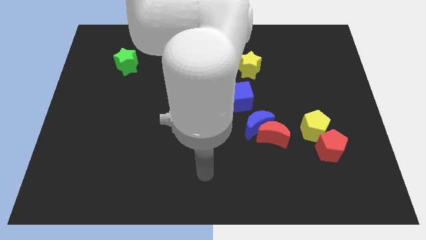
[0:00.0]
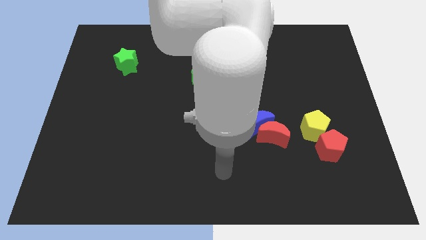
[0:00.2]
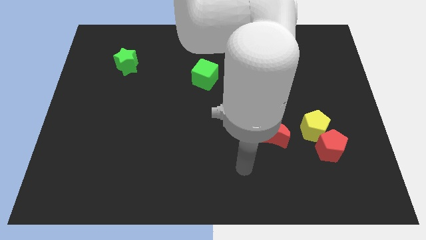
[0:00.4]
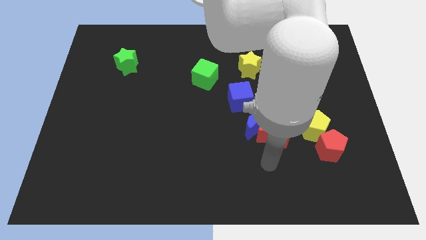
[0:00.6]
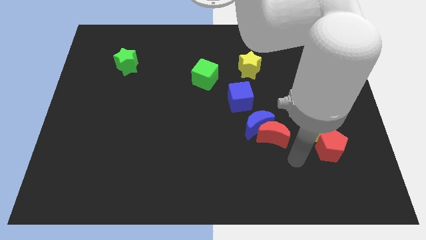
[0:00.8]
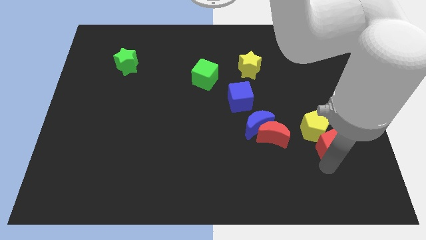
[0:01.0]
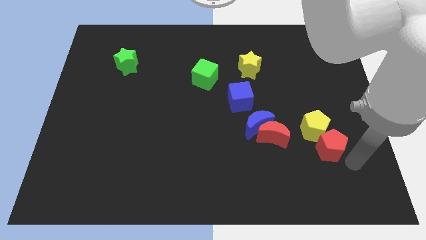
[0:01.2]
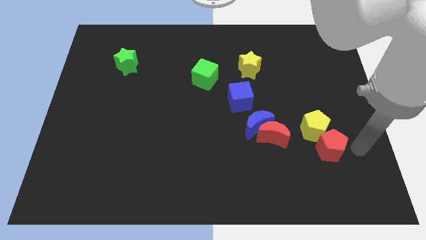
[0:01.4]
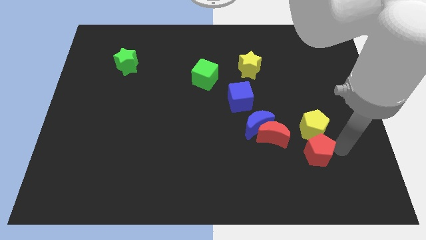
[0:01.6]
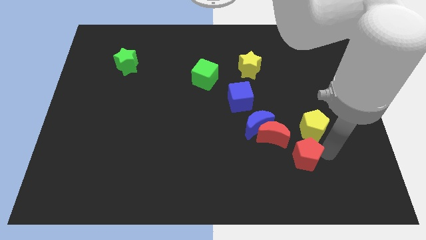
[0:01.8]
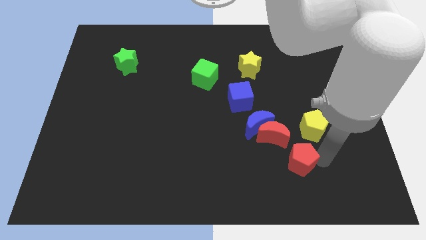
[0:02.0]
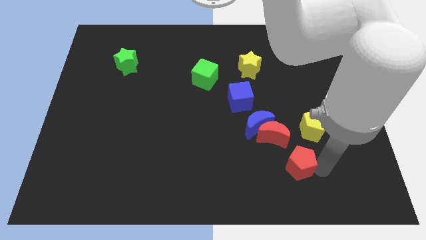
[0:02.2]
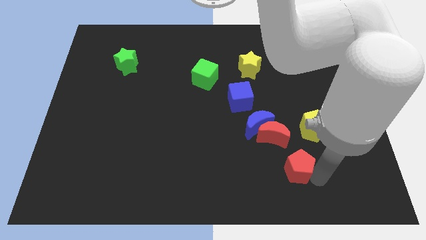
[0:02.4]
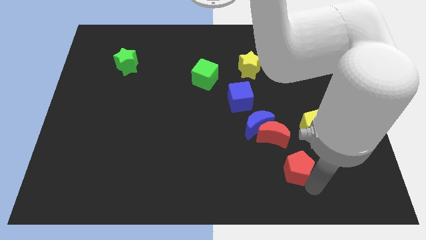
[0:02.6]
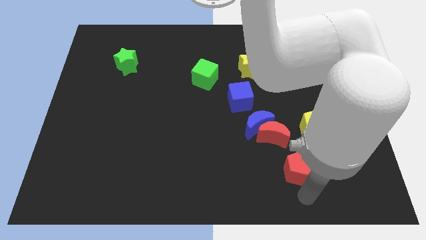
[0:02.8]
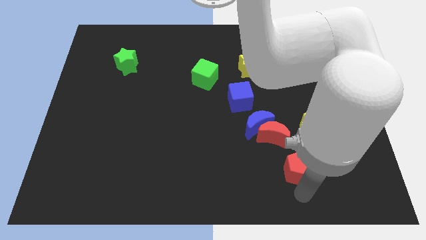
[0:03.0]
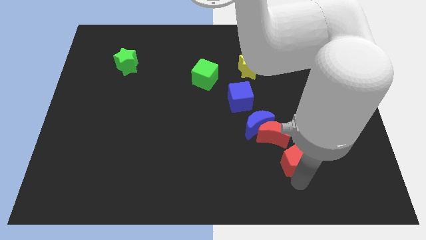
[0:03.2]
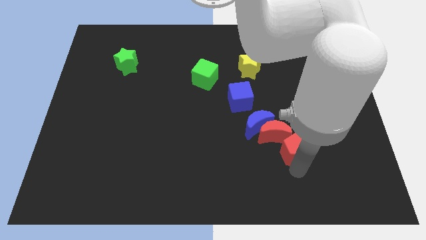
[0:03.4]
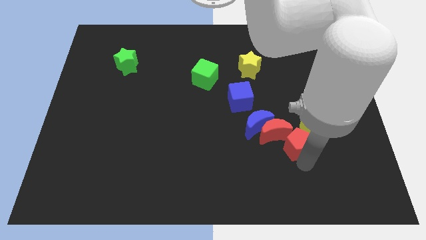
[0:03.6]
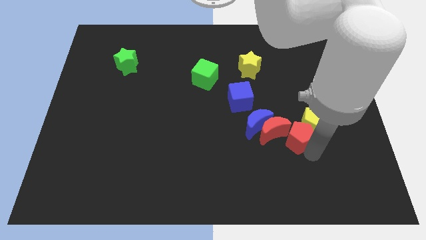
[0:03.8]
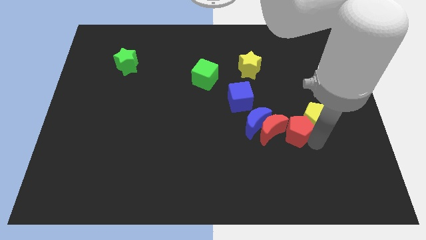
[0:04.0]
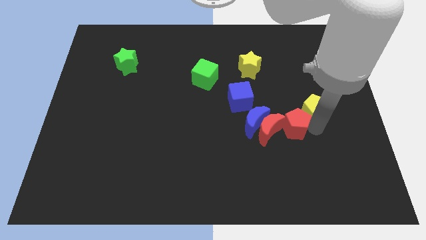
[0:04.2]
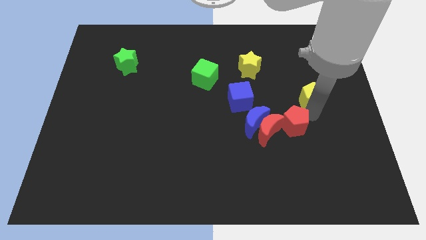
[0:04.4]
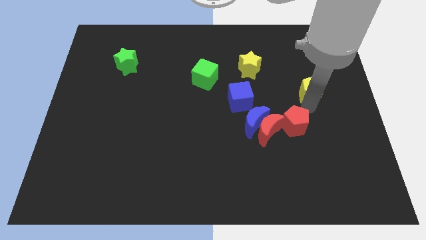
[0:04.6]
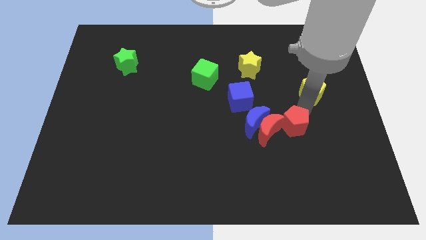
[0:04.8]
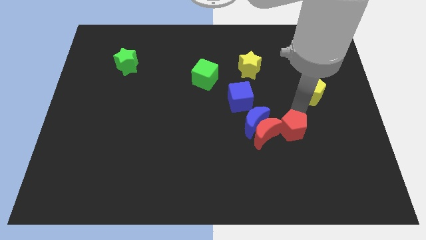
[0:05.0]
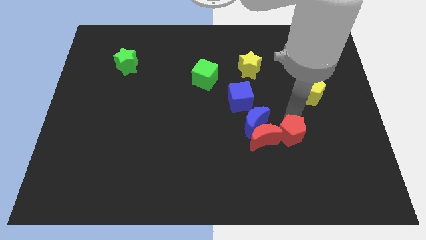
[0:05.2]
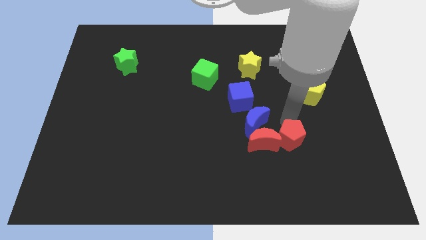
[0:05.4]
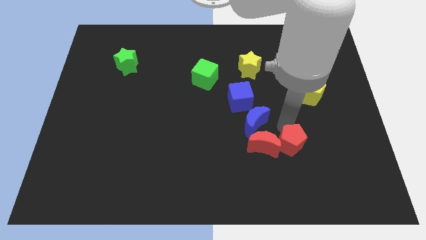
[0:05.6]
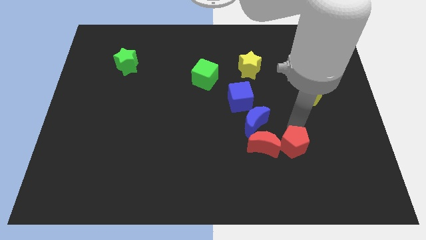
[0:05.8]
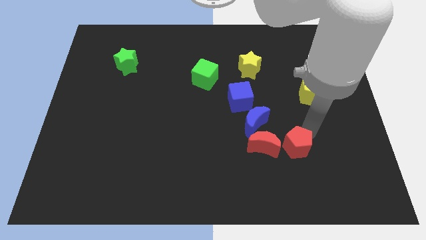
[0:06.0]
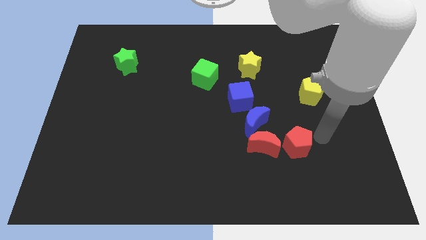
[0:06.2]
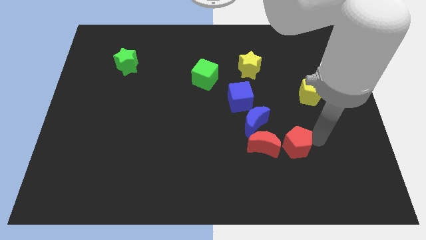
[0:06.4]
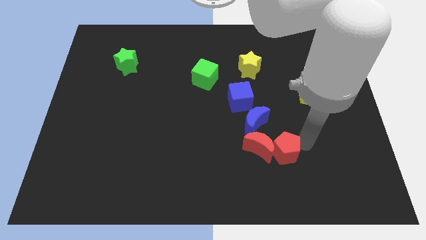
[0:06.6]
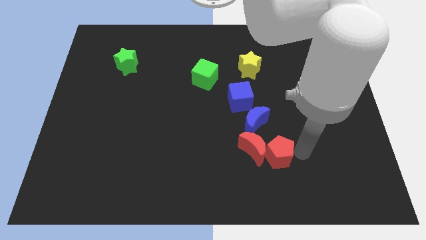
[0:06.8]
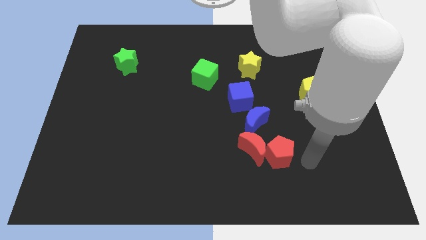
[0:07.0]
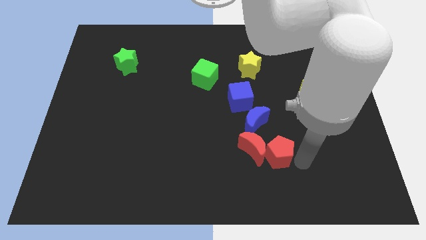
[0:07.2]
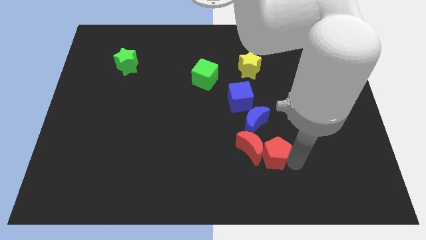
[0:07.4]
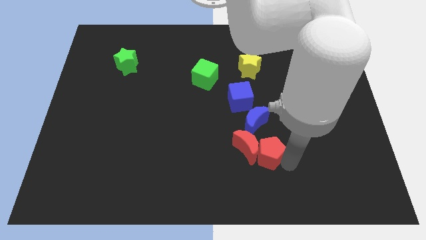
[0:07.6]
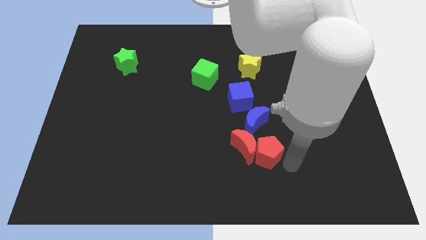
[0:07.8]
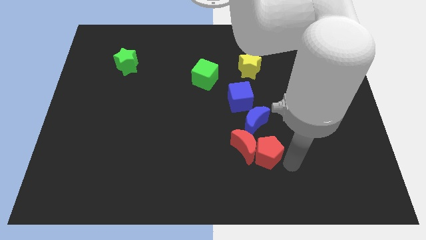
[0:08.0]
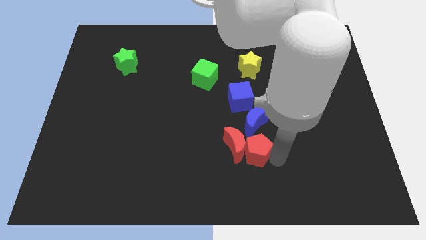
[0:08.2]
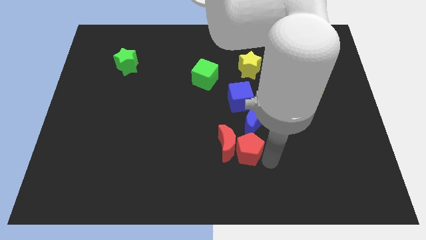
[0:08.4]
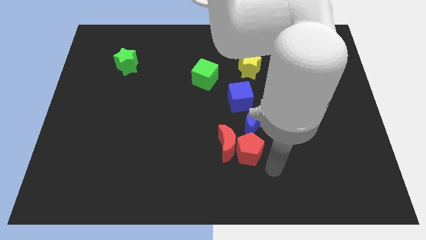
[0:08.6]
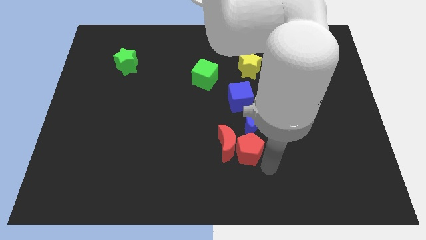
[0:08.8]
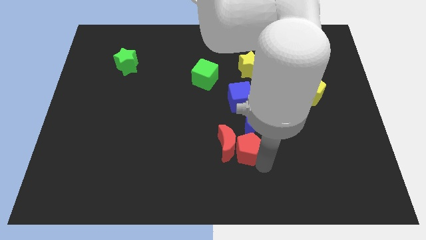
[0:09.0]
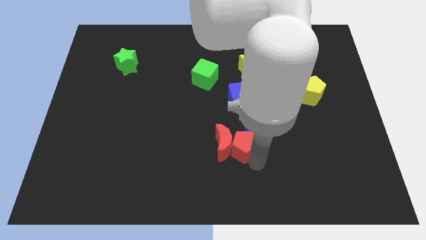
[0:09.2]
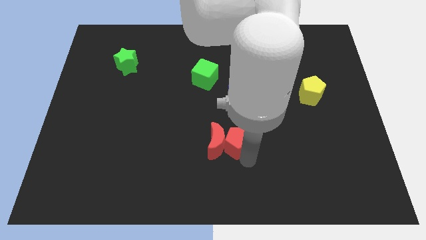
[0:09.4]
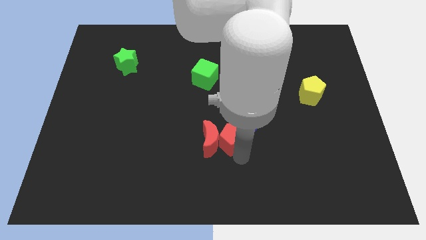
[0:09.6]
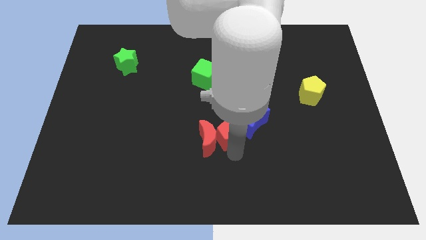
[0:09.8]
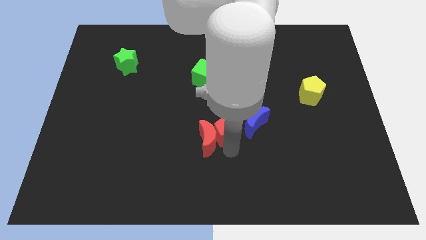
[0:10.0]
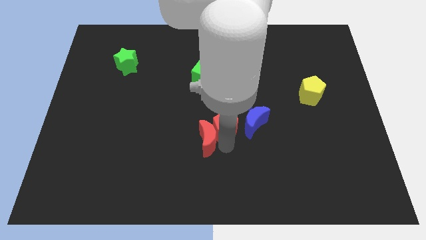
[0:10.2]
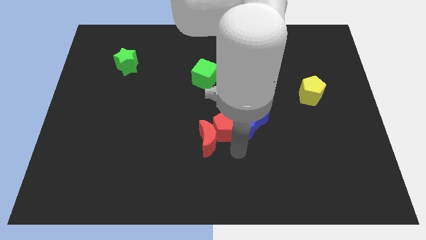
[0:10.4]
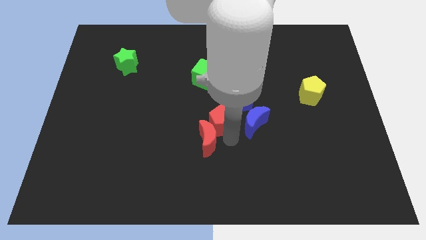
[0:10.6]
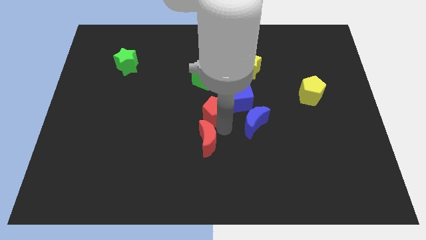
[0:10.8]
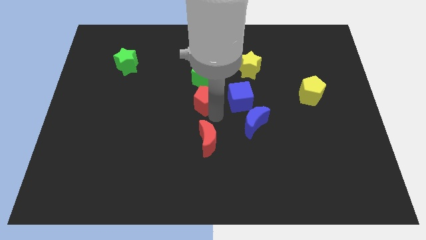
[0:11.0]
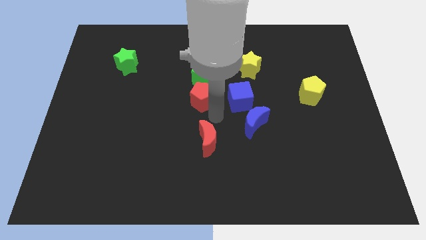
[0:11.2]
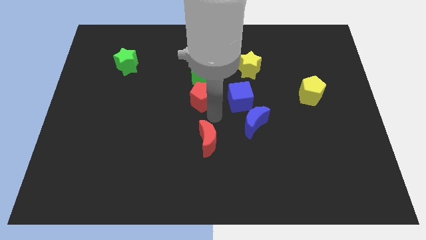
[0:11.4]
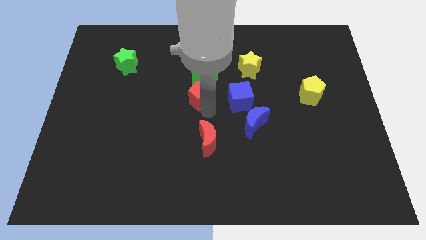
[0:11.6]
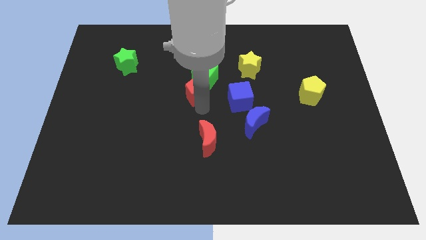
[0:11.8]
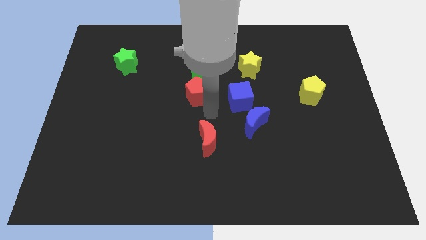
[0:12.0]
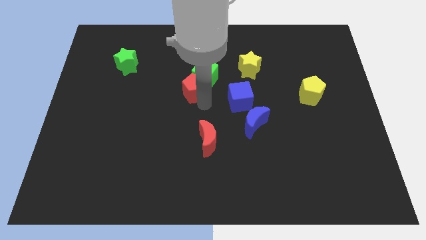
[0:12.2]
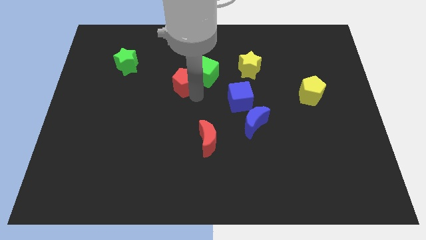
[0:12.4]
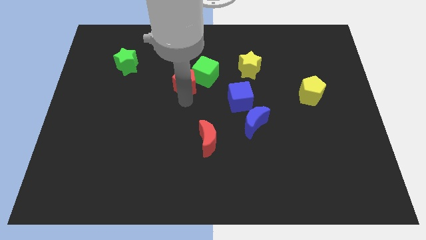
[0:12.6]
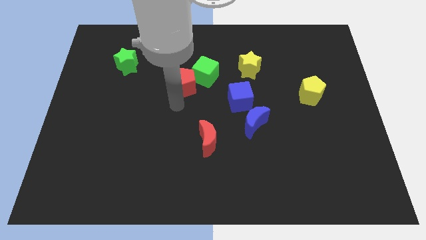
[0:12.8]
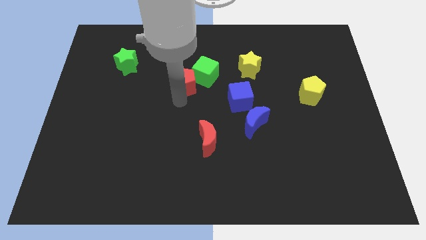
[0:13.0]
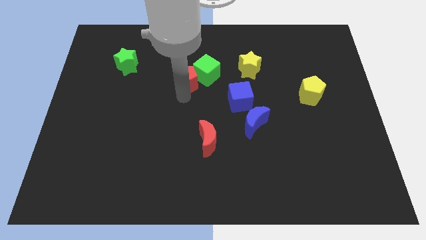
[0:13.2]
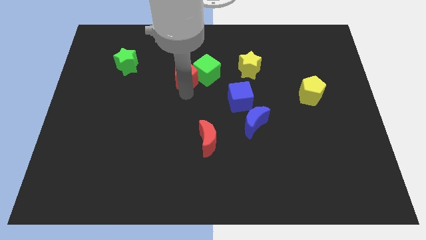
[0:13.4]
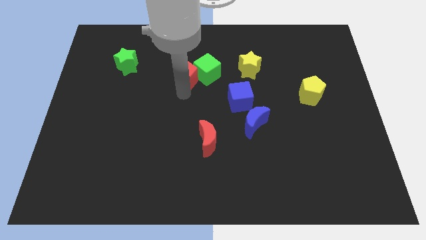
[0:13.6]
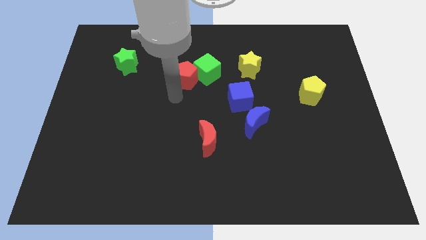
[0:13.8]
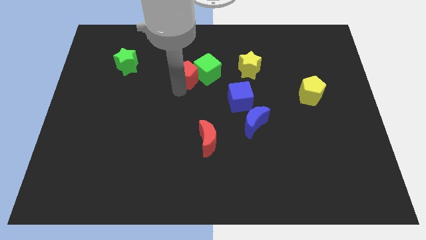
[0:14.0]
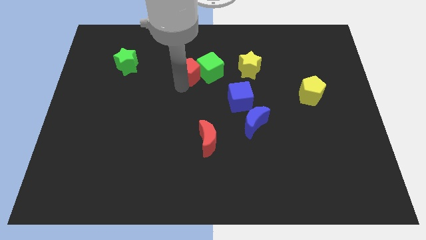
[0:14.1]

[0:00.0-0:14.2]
push the red pentagon left of the yellow star
